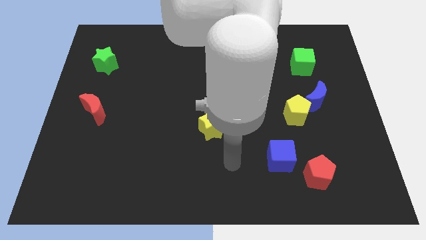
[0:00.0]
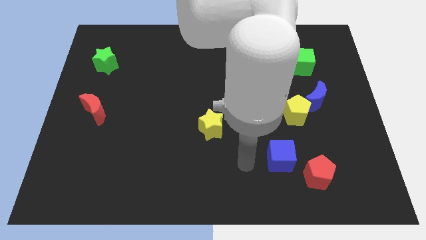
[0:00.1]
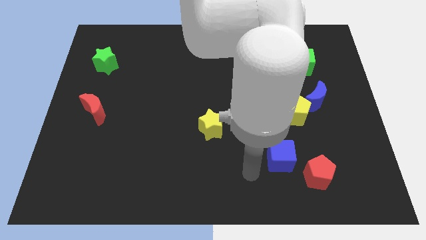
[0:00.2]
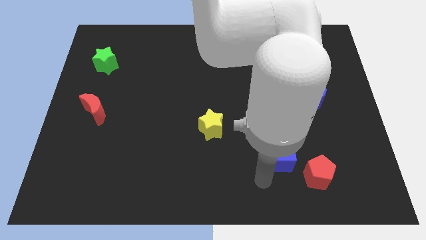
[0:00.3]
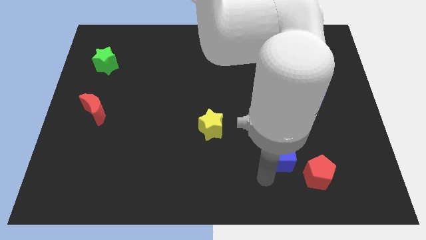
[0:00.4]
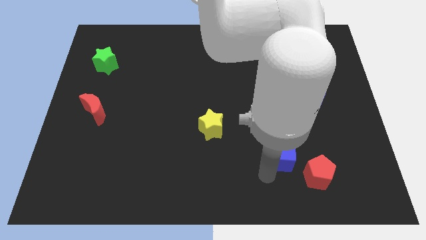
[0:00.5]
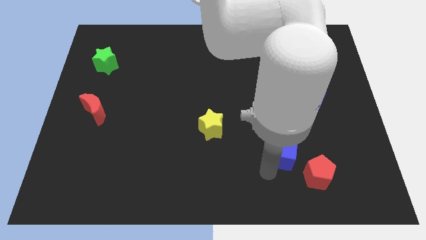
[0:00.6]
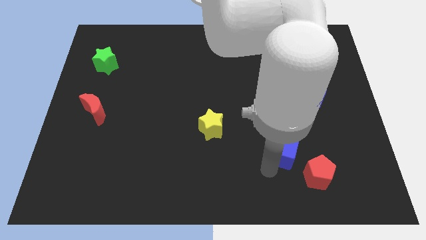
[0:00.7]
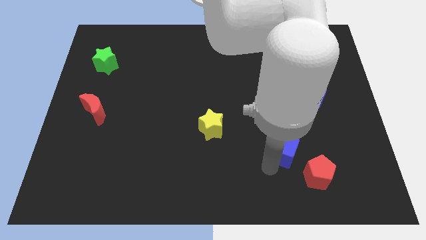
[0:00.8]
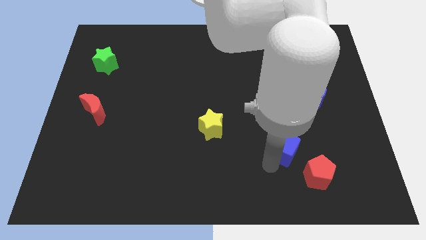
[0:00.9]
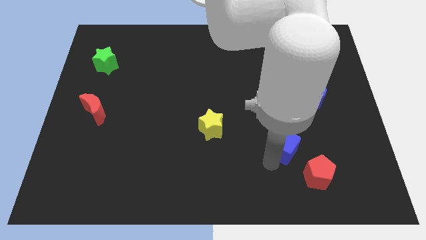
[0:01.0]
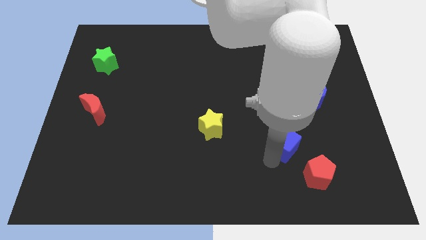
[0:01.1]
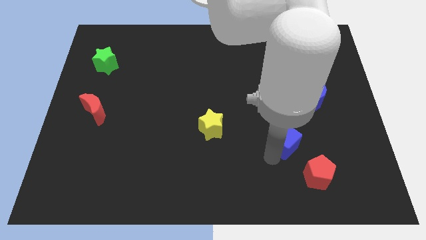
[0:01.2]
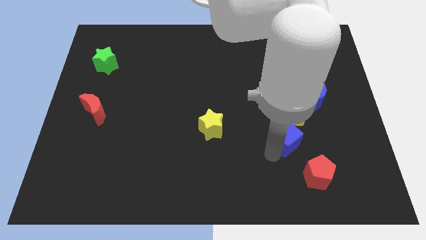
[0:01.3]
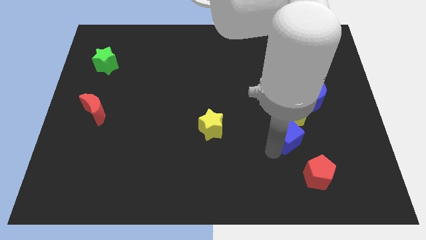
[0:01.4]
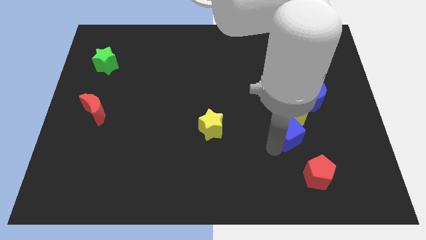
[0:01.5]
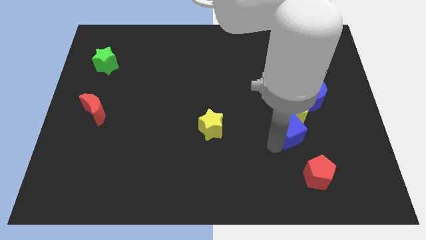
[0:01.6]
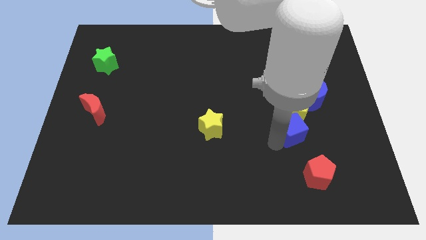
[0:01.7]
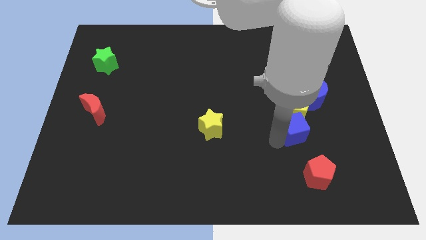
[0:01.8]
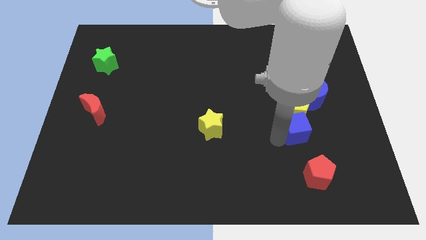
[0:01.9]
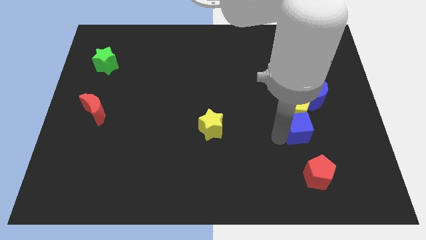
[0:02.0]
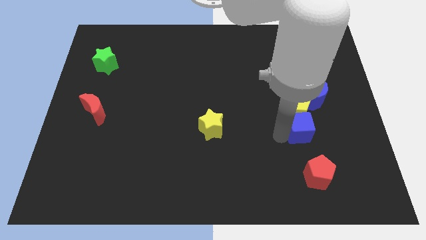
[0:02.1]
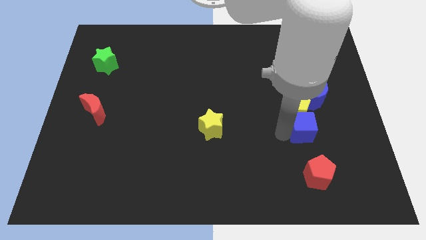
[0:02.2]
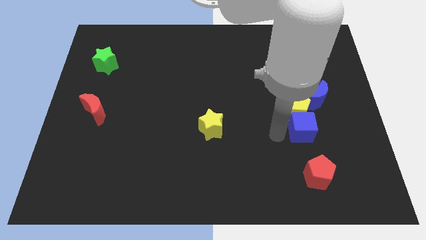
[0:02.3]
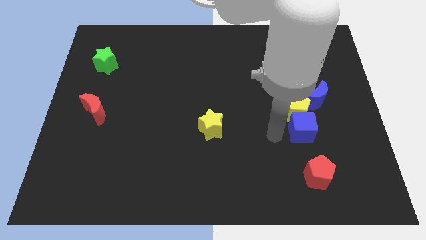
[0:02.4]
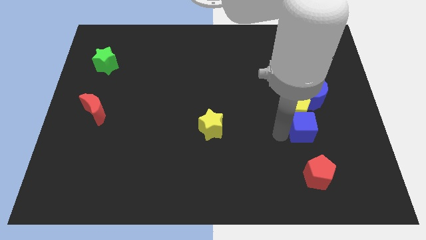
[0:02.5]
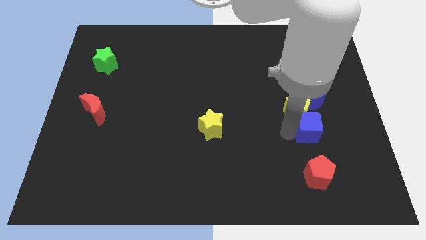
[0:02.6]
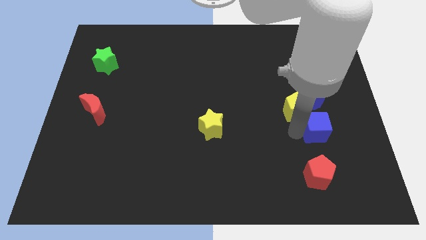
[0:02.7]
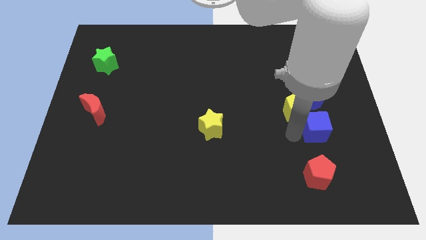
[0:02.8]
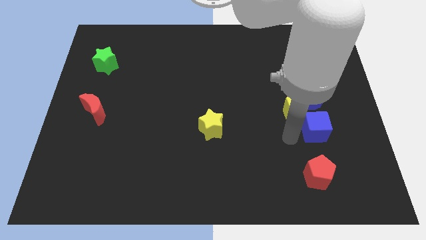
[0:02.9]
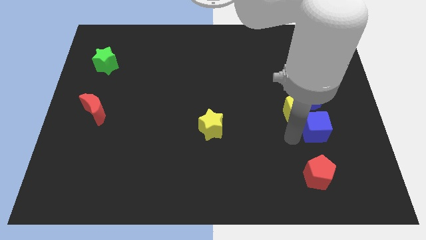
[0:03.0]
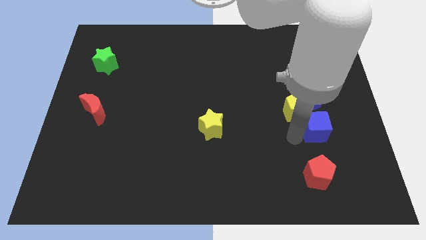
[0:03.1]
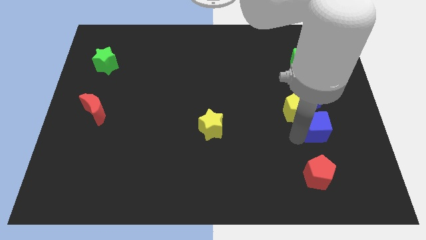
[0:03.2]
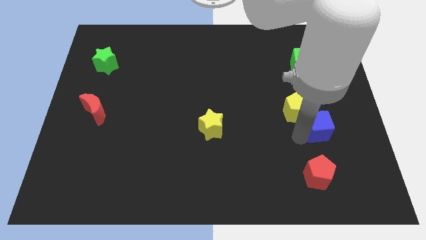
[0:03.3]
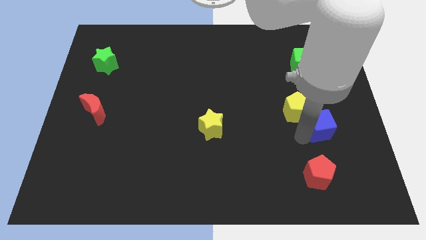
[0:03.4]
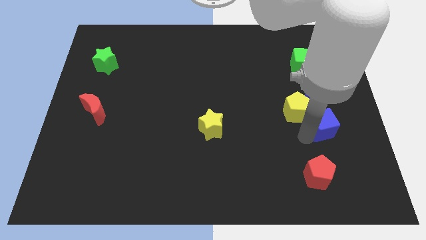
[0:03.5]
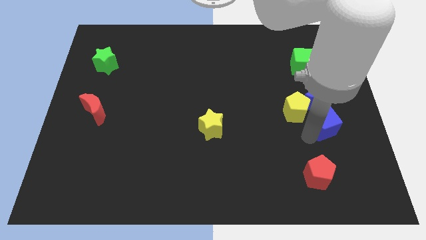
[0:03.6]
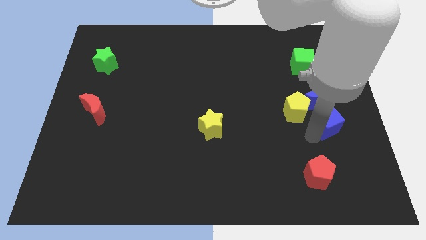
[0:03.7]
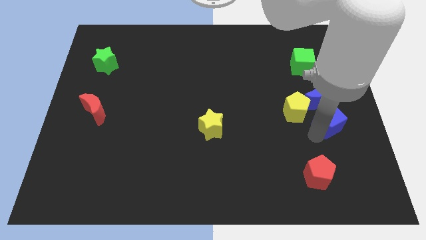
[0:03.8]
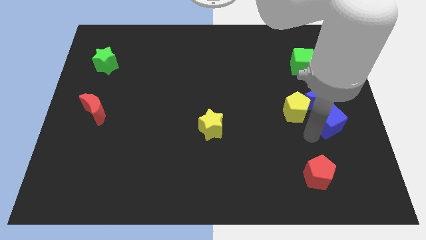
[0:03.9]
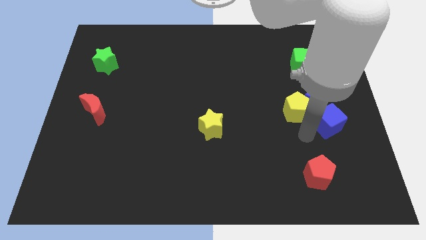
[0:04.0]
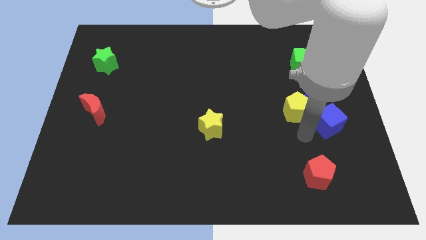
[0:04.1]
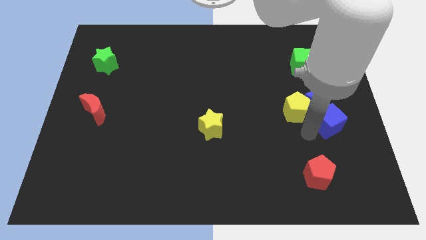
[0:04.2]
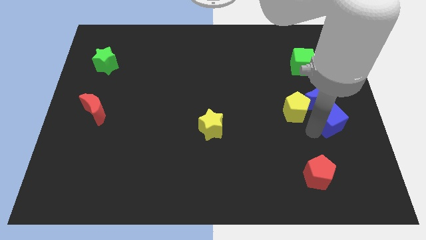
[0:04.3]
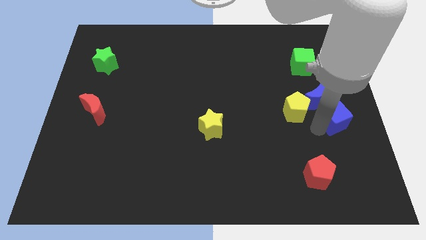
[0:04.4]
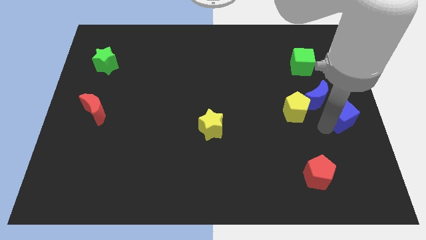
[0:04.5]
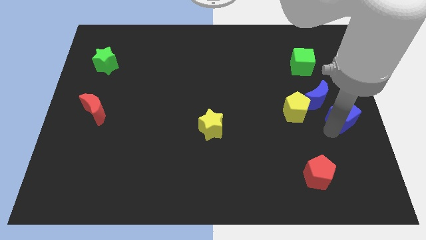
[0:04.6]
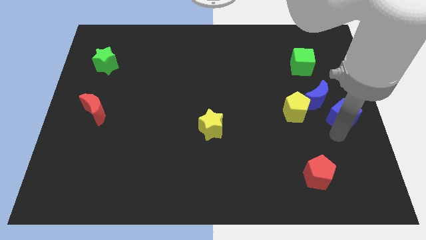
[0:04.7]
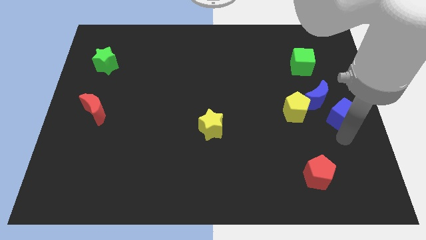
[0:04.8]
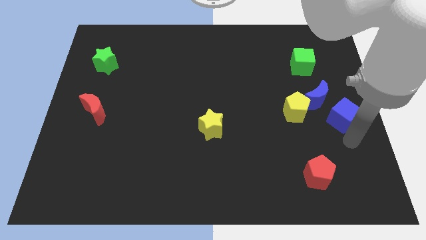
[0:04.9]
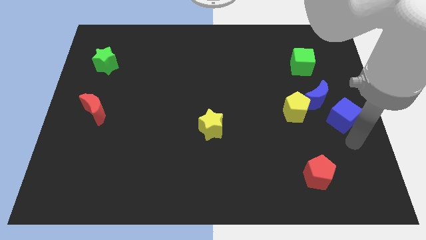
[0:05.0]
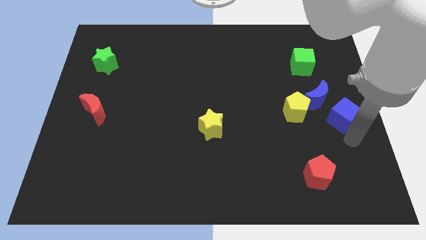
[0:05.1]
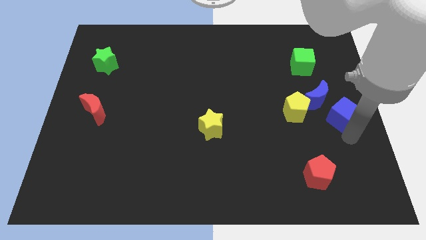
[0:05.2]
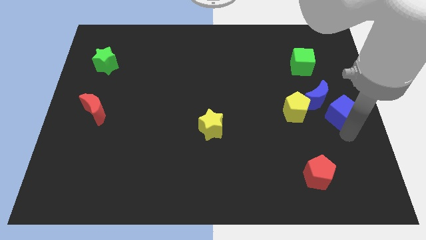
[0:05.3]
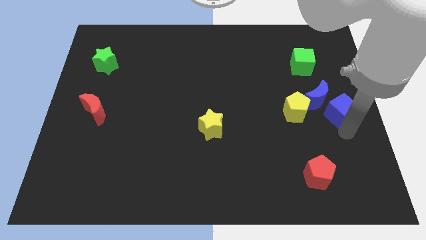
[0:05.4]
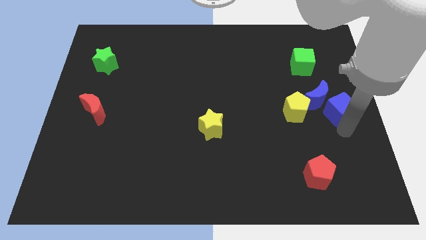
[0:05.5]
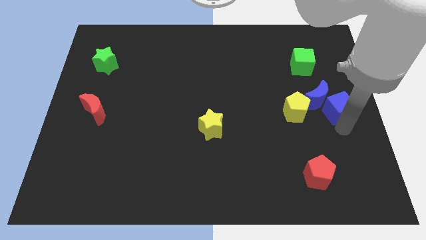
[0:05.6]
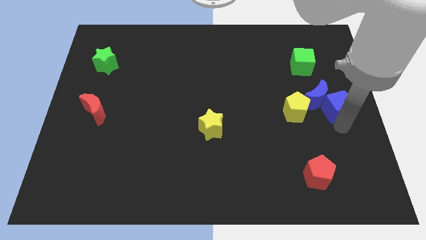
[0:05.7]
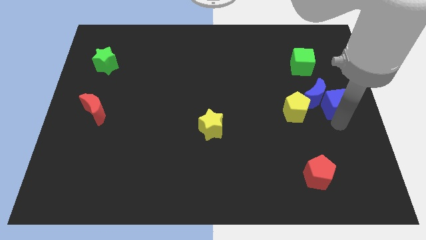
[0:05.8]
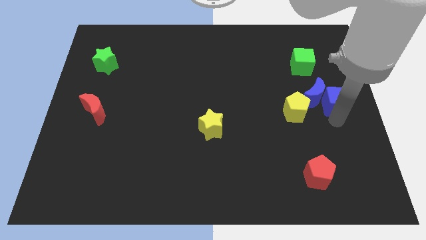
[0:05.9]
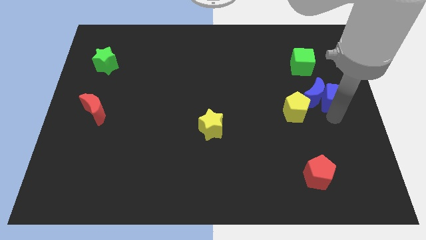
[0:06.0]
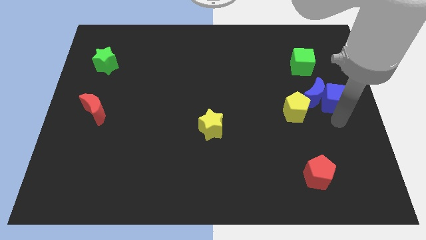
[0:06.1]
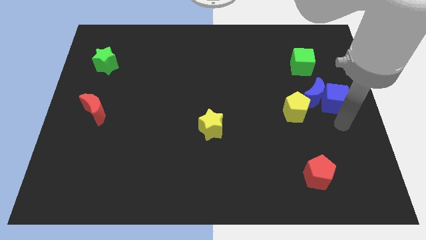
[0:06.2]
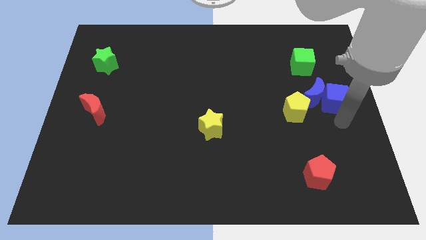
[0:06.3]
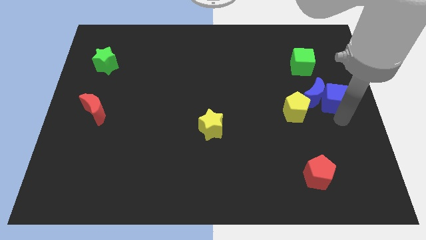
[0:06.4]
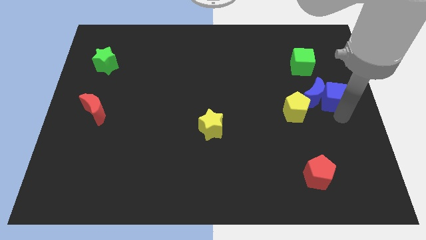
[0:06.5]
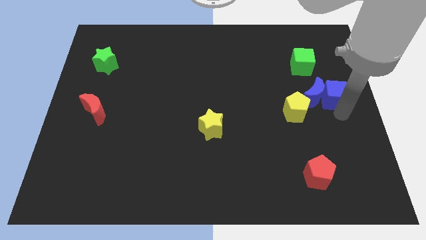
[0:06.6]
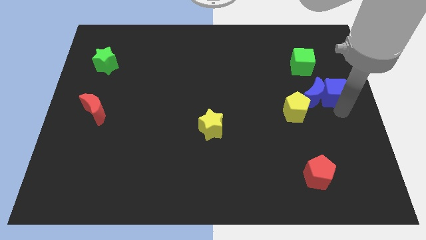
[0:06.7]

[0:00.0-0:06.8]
move the blue cube to the bottom right of the green cube
